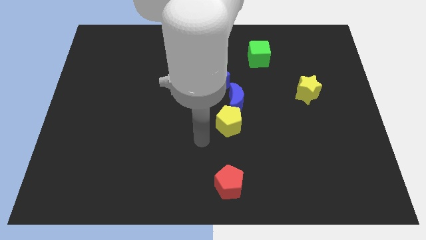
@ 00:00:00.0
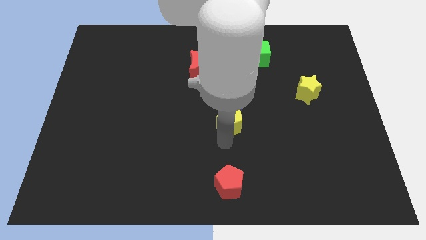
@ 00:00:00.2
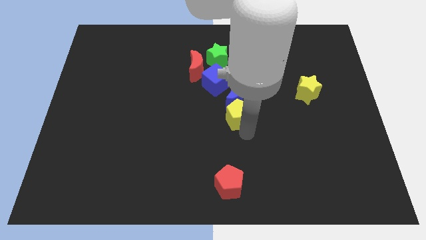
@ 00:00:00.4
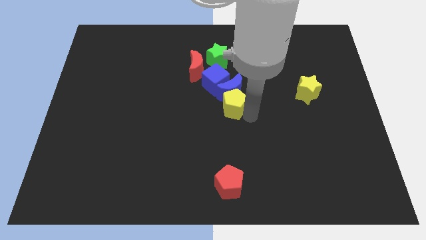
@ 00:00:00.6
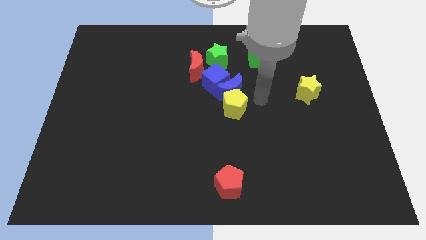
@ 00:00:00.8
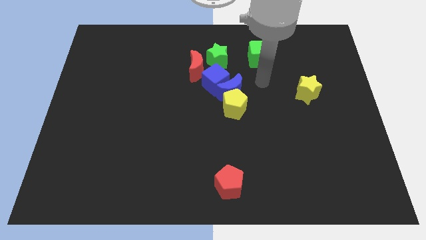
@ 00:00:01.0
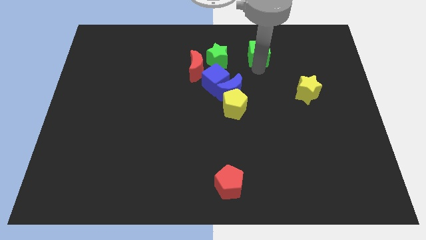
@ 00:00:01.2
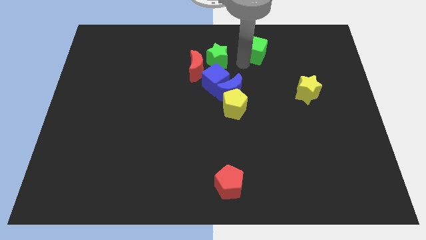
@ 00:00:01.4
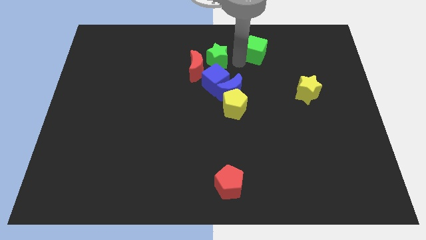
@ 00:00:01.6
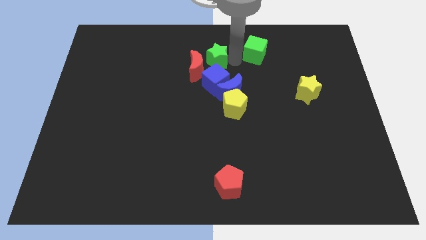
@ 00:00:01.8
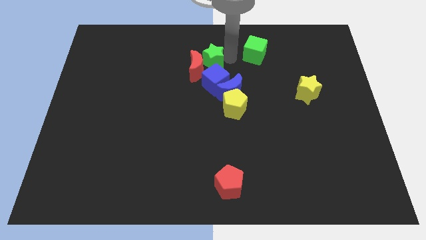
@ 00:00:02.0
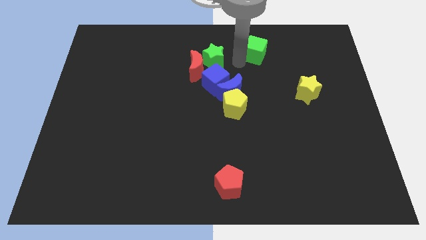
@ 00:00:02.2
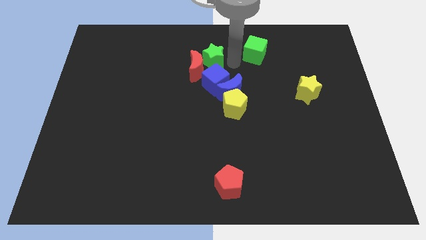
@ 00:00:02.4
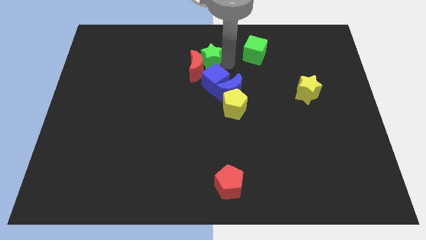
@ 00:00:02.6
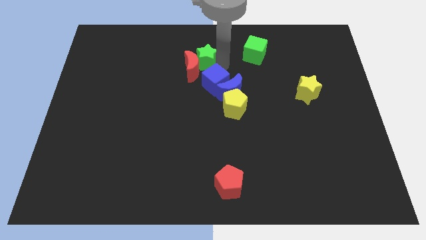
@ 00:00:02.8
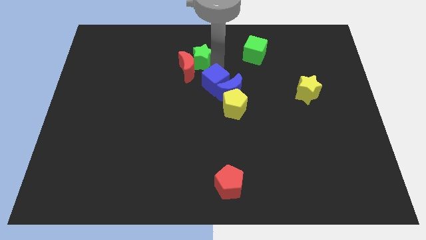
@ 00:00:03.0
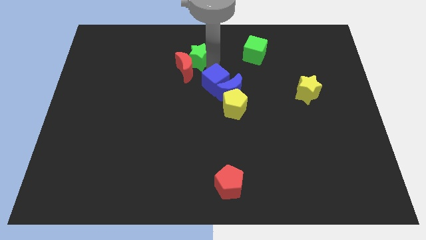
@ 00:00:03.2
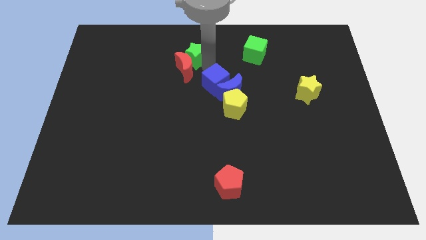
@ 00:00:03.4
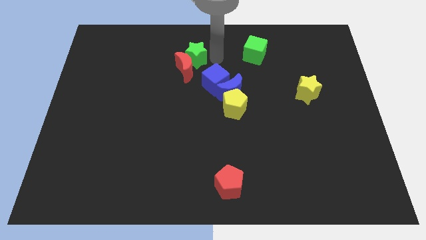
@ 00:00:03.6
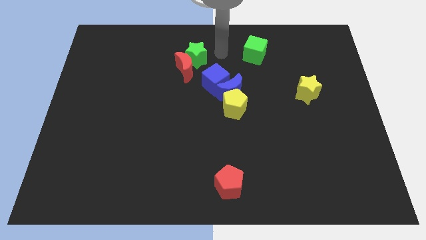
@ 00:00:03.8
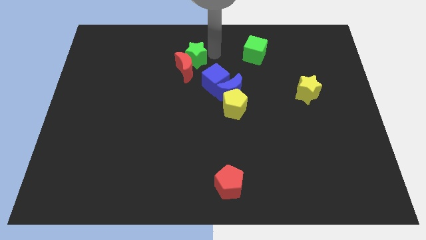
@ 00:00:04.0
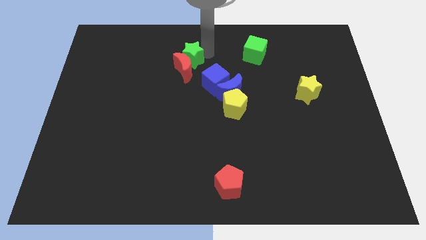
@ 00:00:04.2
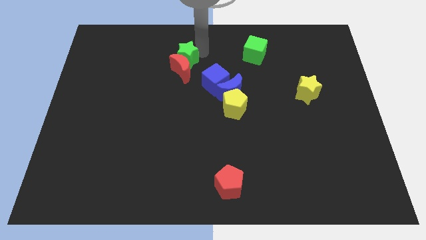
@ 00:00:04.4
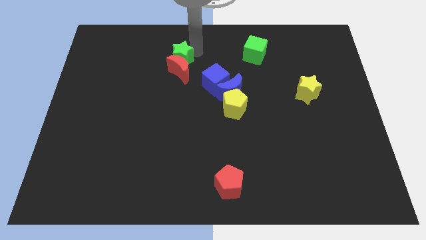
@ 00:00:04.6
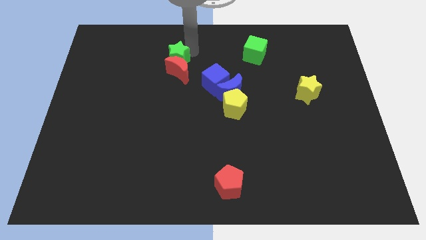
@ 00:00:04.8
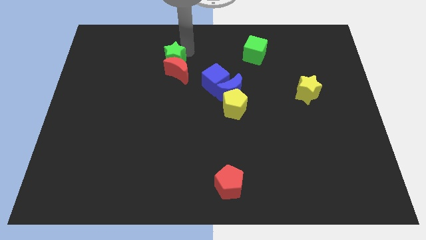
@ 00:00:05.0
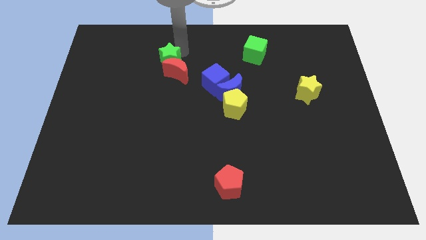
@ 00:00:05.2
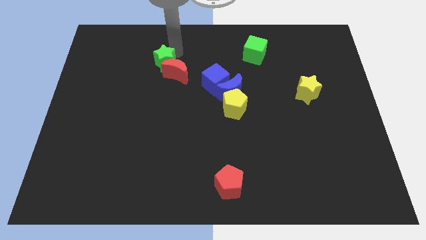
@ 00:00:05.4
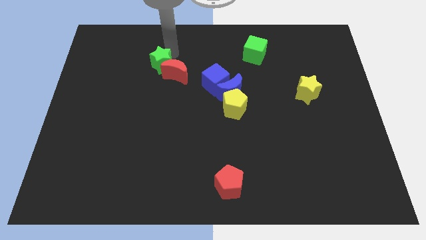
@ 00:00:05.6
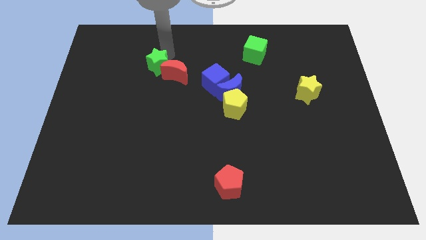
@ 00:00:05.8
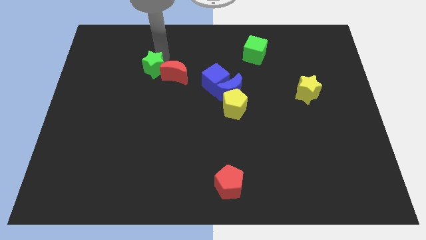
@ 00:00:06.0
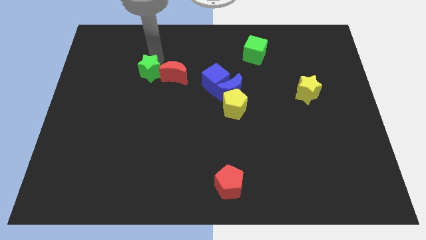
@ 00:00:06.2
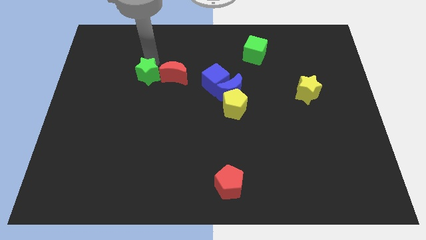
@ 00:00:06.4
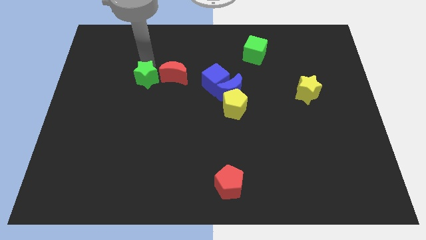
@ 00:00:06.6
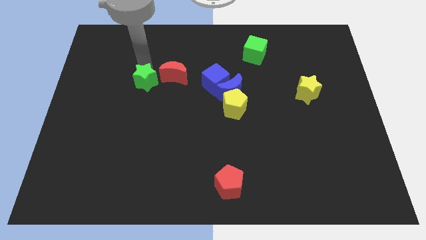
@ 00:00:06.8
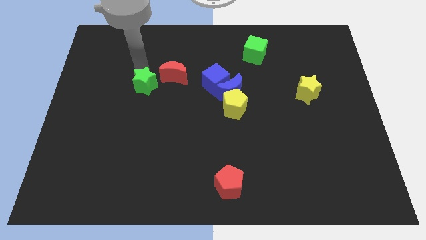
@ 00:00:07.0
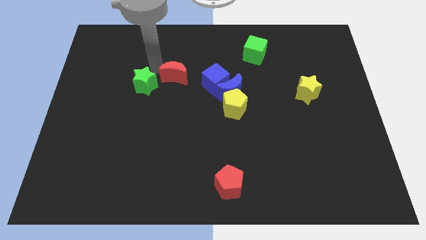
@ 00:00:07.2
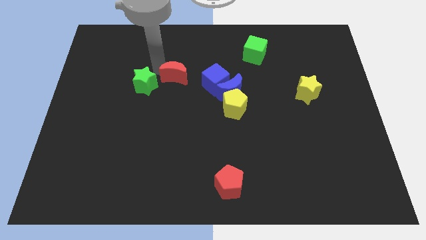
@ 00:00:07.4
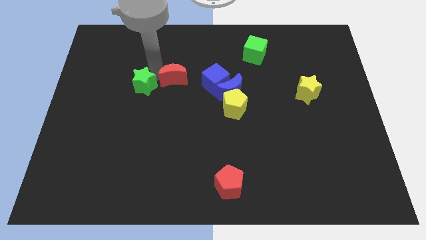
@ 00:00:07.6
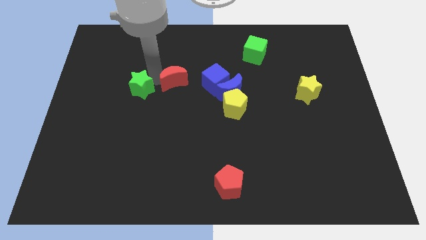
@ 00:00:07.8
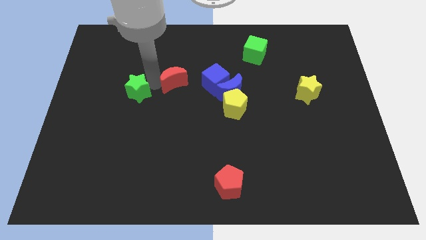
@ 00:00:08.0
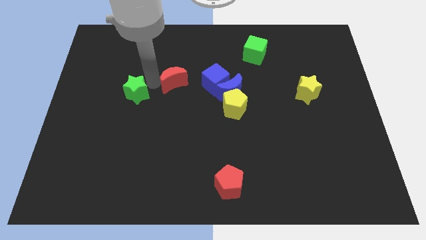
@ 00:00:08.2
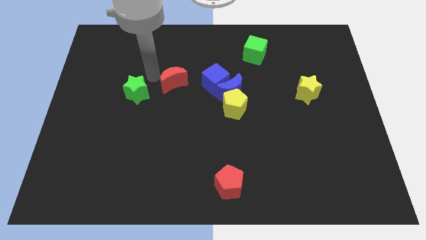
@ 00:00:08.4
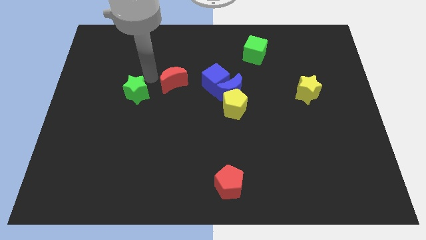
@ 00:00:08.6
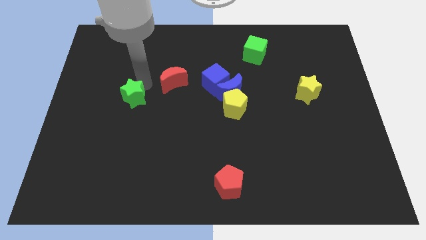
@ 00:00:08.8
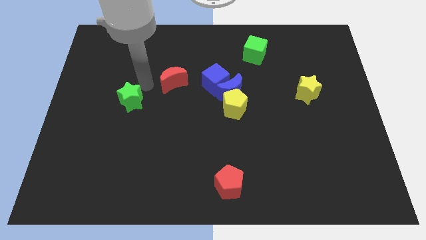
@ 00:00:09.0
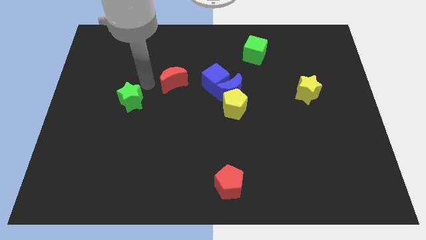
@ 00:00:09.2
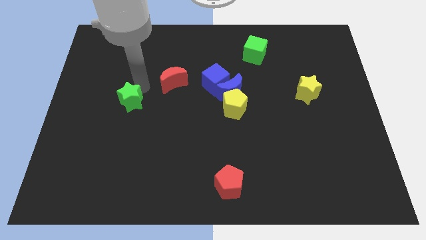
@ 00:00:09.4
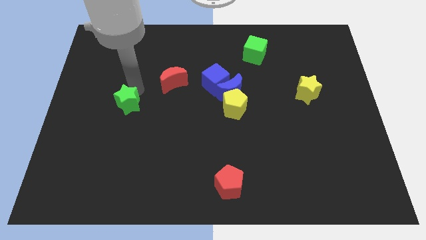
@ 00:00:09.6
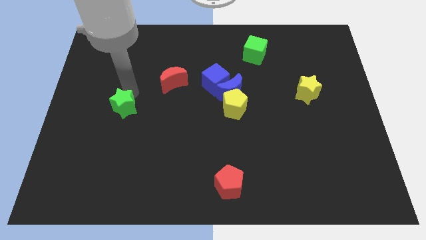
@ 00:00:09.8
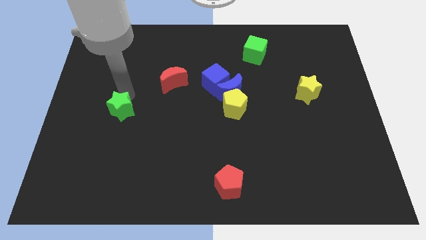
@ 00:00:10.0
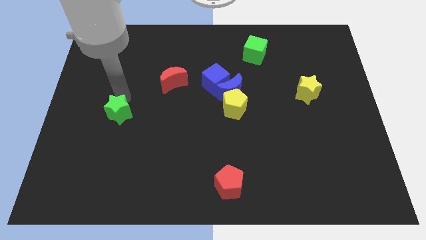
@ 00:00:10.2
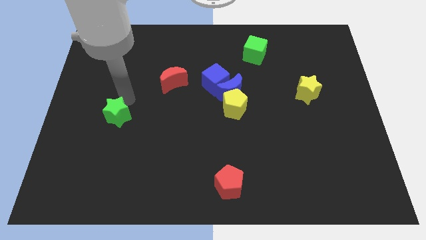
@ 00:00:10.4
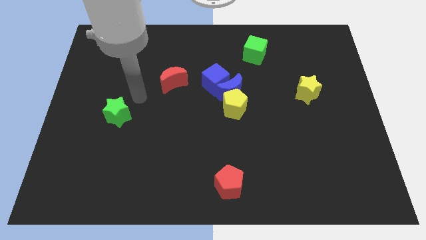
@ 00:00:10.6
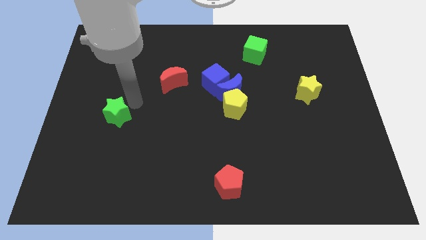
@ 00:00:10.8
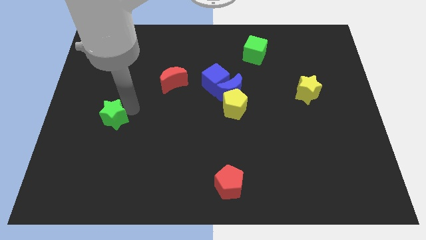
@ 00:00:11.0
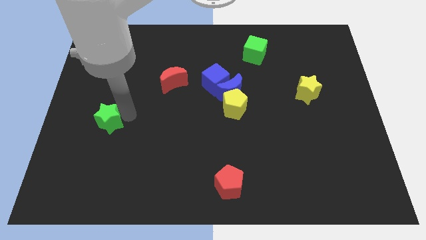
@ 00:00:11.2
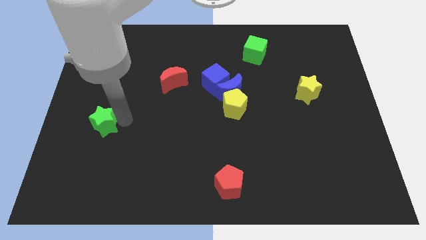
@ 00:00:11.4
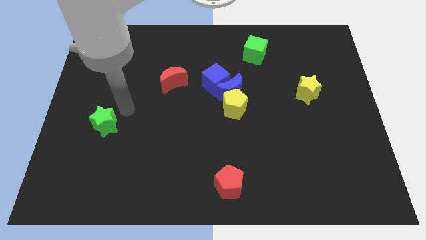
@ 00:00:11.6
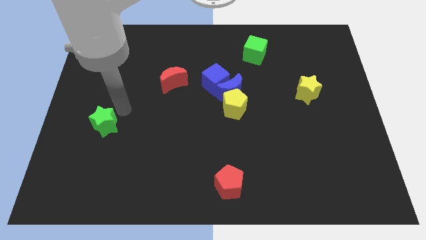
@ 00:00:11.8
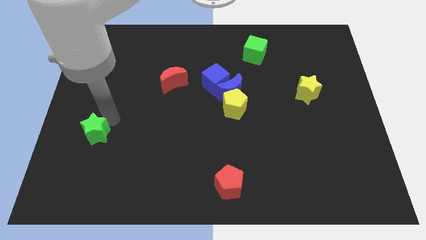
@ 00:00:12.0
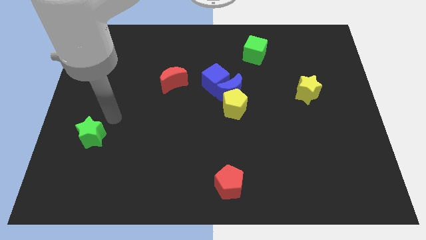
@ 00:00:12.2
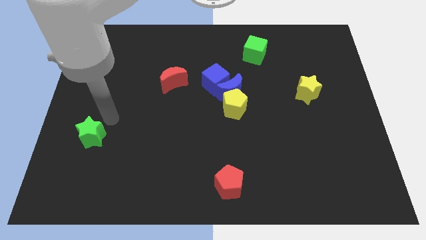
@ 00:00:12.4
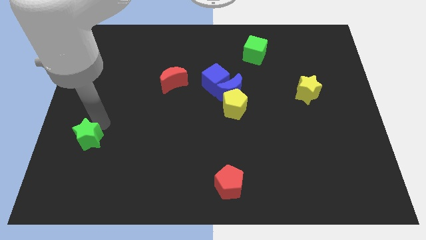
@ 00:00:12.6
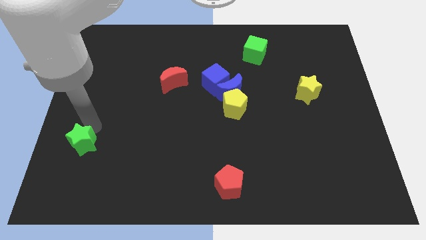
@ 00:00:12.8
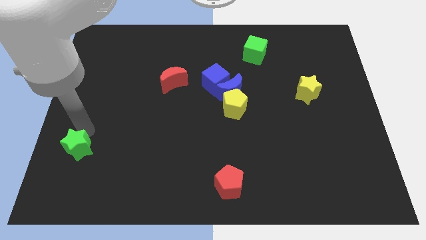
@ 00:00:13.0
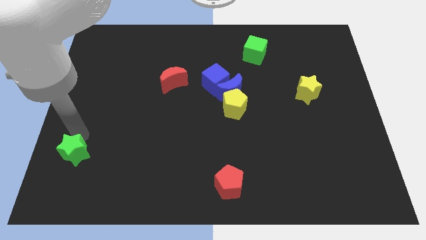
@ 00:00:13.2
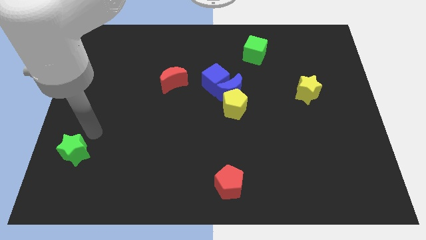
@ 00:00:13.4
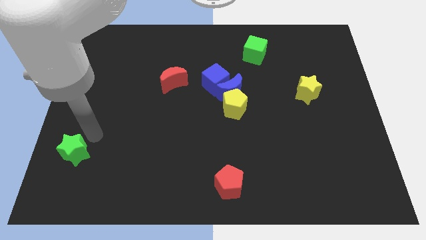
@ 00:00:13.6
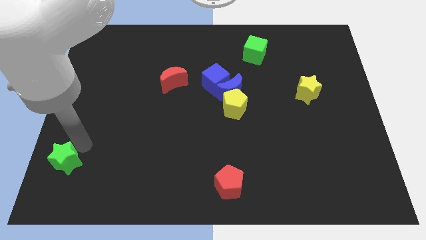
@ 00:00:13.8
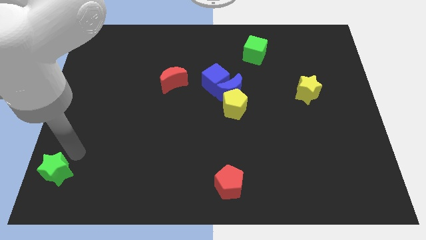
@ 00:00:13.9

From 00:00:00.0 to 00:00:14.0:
put the green star to the bottom left corner
